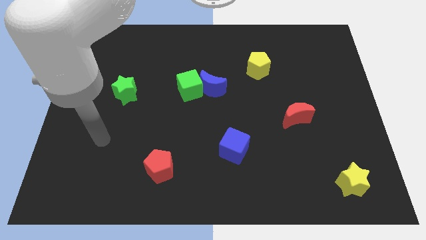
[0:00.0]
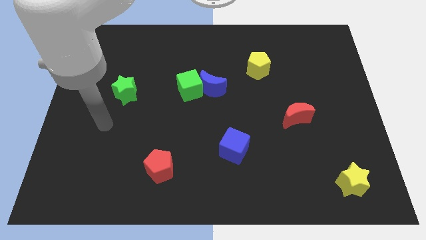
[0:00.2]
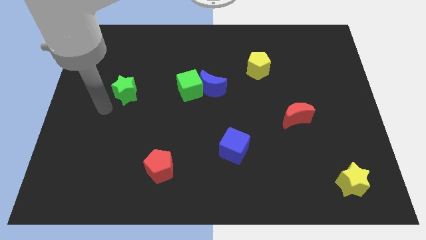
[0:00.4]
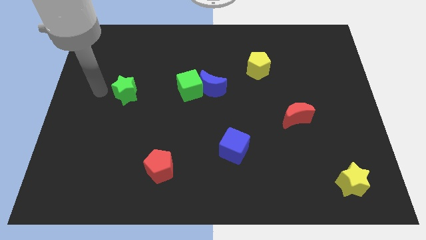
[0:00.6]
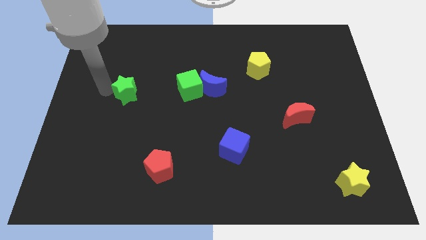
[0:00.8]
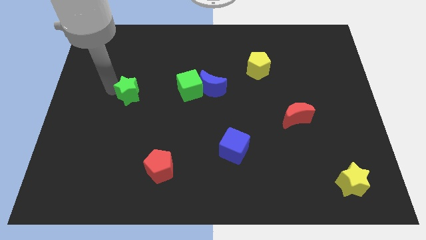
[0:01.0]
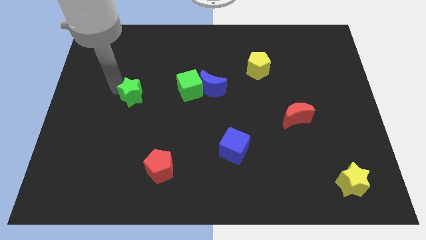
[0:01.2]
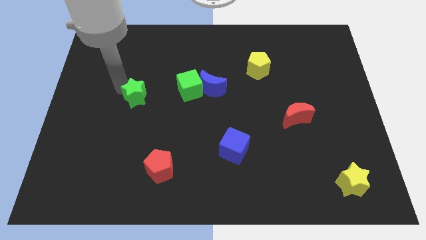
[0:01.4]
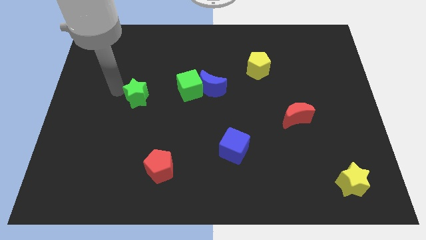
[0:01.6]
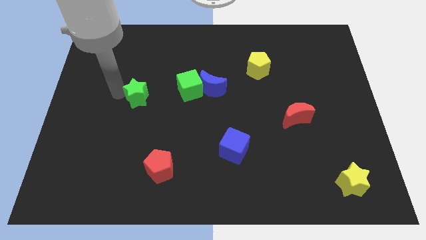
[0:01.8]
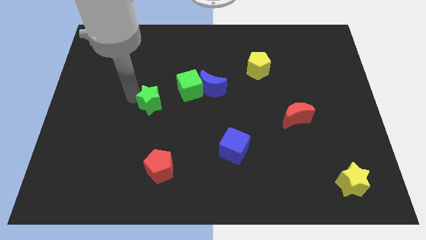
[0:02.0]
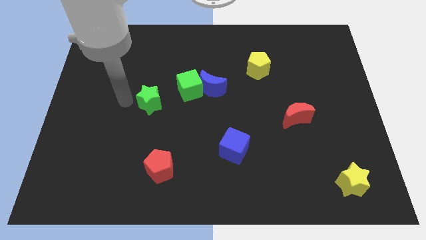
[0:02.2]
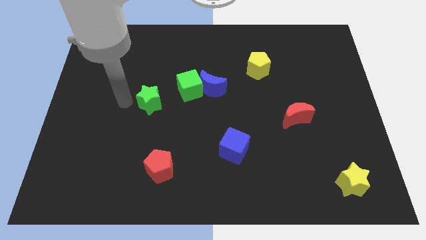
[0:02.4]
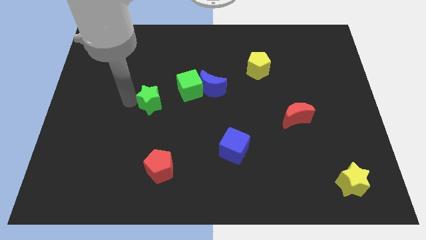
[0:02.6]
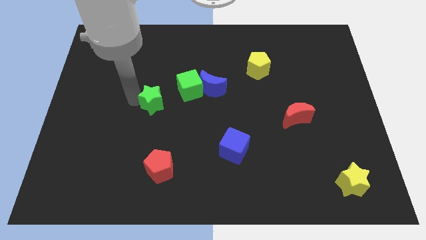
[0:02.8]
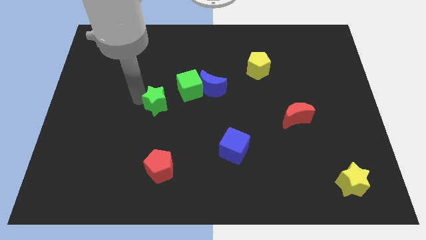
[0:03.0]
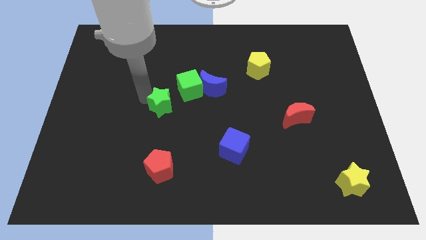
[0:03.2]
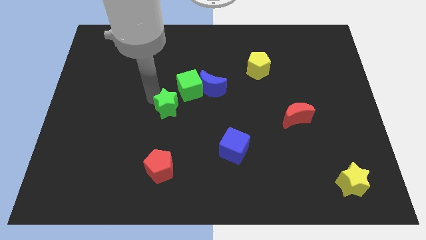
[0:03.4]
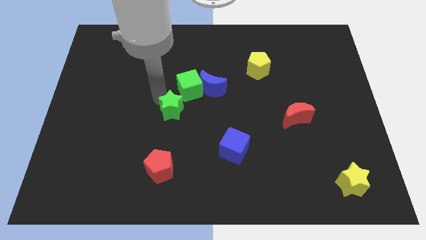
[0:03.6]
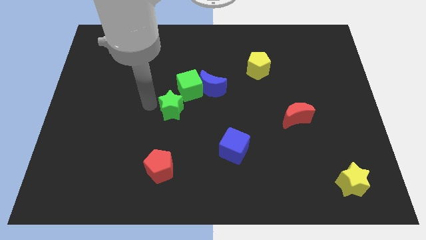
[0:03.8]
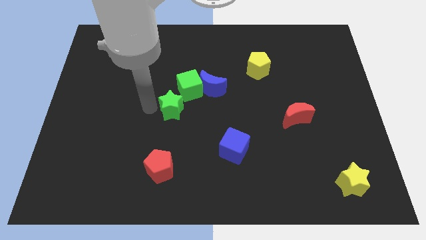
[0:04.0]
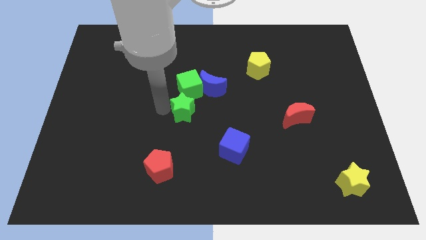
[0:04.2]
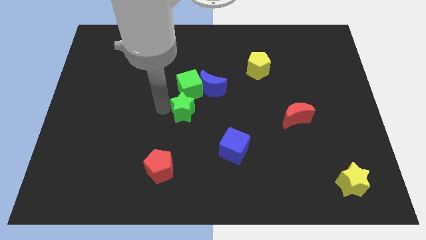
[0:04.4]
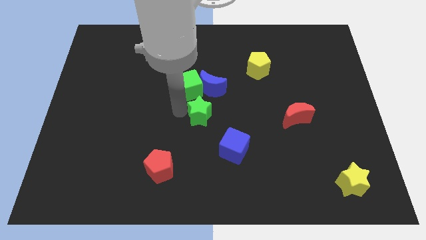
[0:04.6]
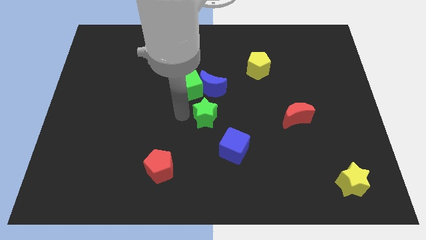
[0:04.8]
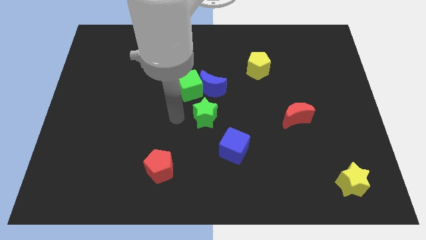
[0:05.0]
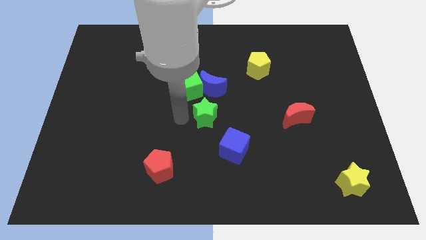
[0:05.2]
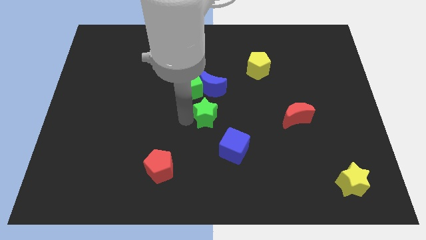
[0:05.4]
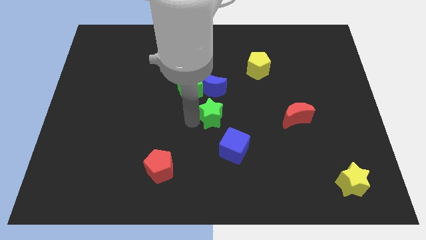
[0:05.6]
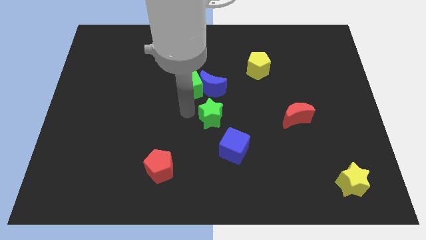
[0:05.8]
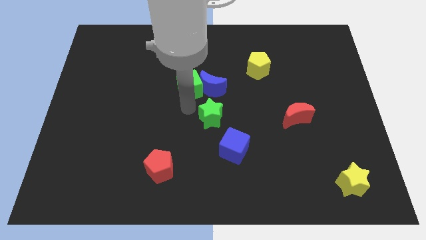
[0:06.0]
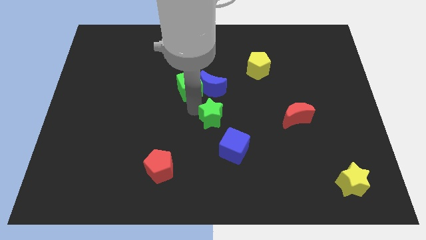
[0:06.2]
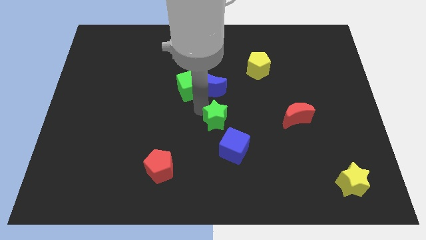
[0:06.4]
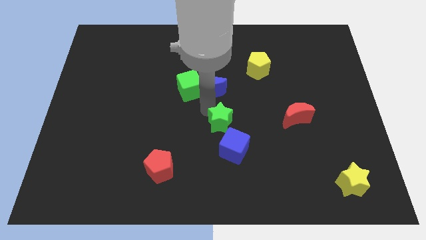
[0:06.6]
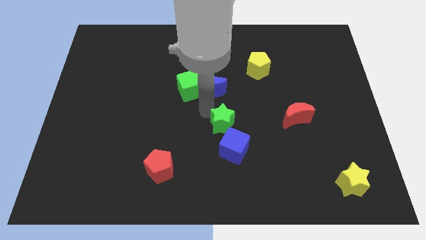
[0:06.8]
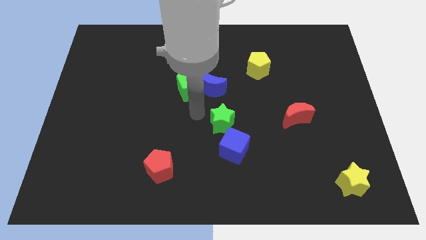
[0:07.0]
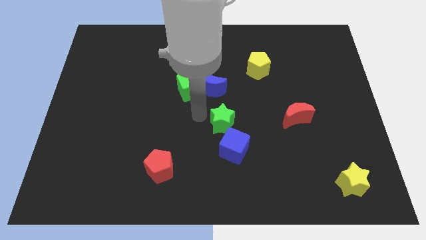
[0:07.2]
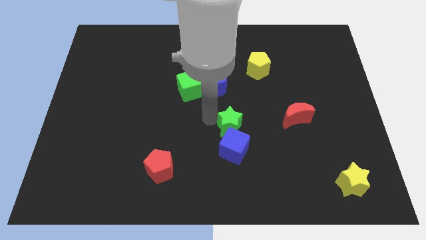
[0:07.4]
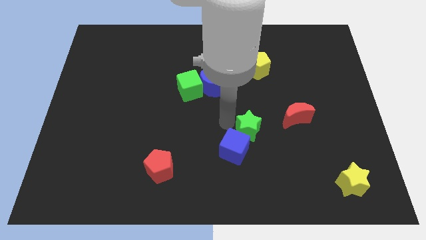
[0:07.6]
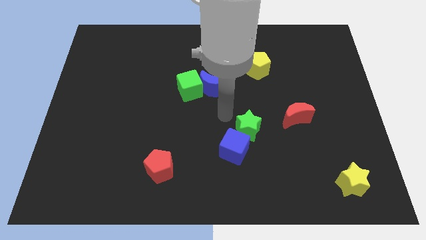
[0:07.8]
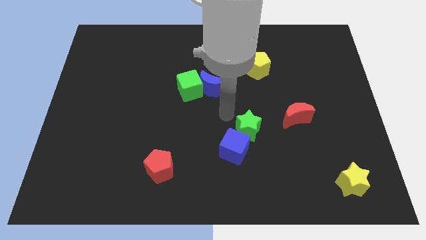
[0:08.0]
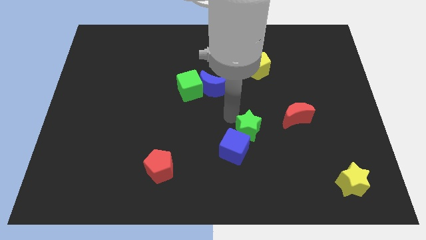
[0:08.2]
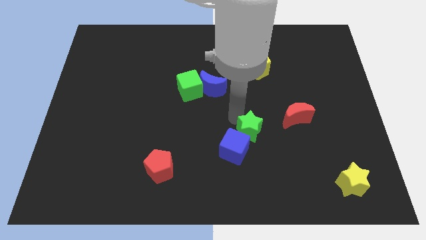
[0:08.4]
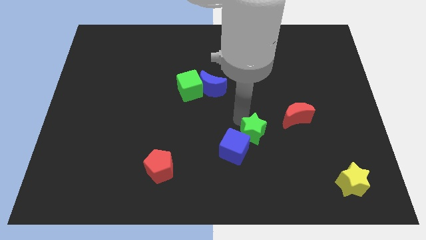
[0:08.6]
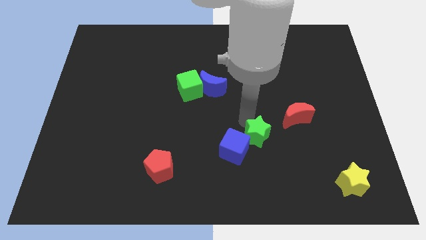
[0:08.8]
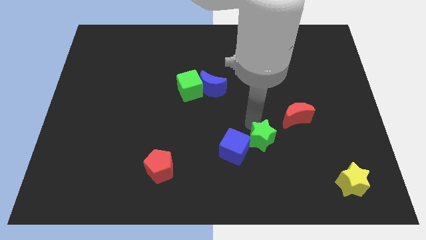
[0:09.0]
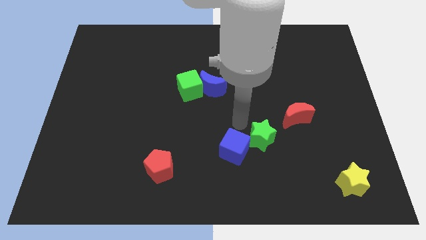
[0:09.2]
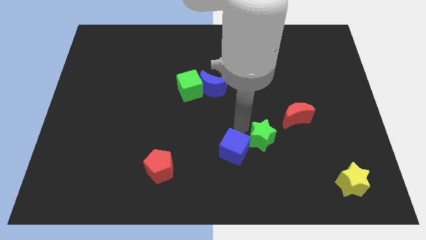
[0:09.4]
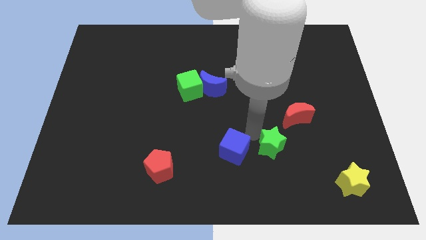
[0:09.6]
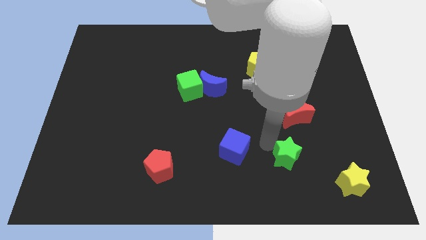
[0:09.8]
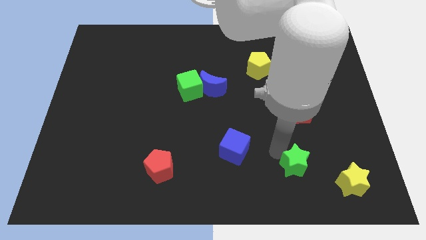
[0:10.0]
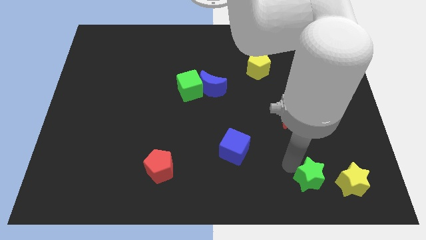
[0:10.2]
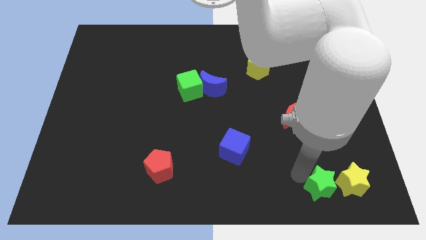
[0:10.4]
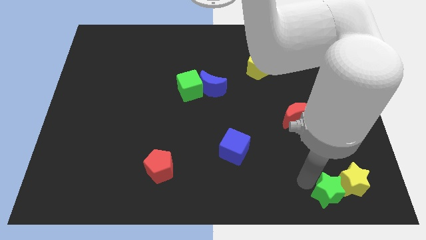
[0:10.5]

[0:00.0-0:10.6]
push the green star next to the yellow star

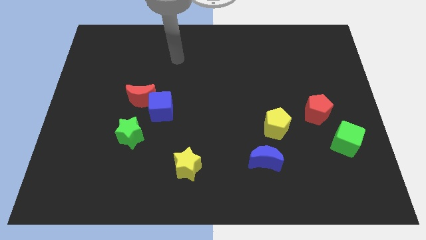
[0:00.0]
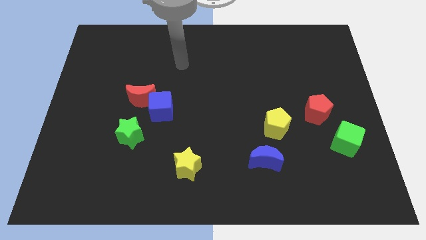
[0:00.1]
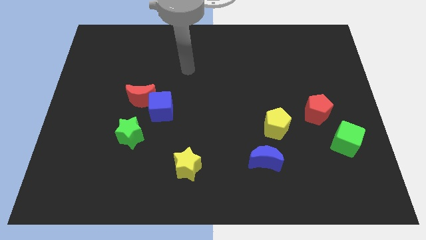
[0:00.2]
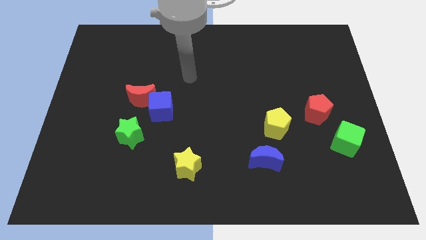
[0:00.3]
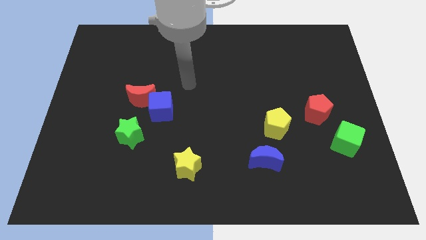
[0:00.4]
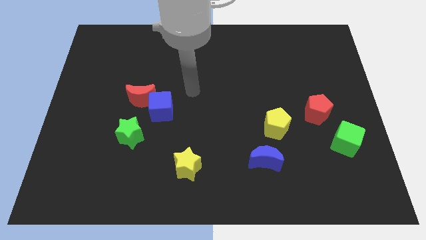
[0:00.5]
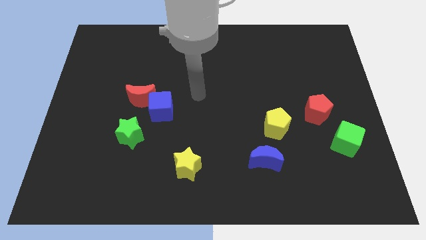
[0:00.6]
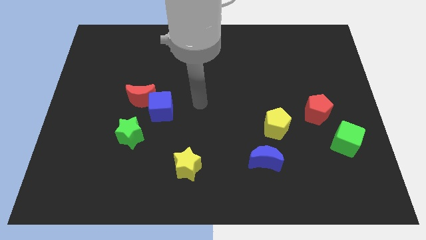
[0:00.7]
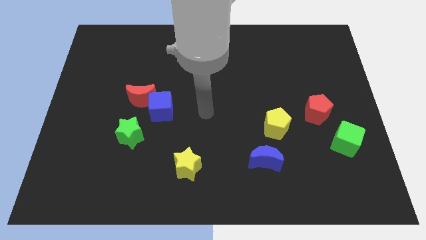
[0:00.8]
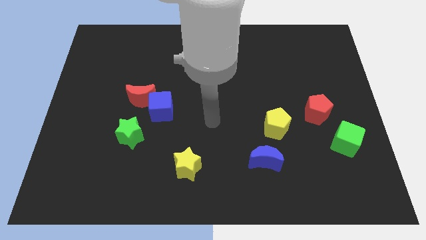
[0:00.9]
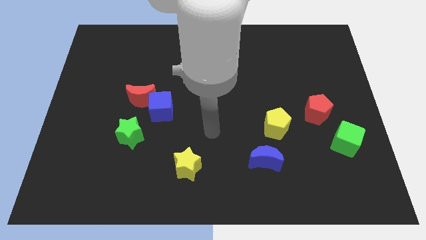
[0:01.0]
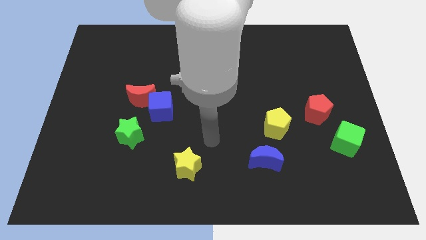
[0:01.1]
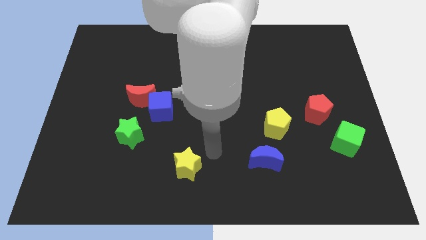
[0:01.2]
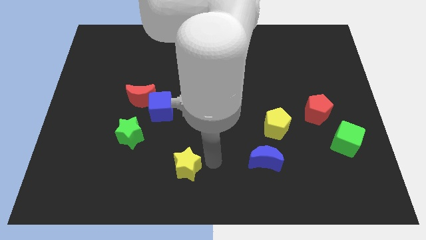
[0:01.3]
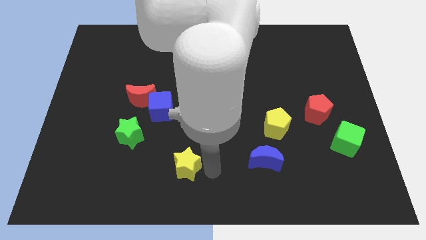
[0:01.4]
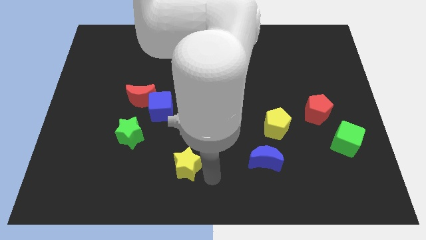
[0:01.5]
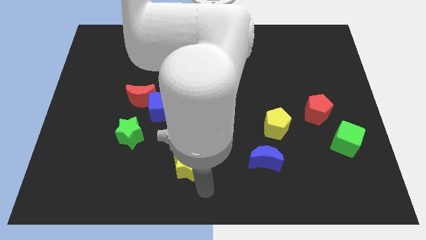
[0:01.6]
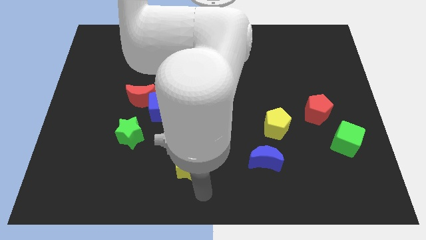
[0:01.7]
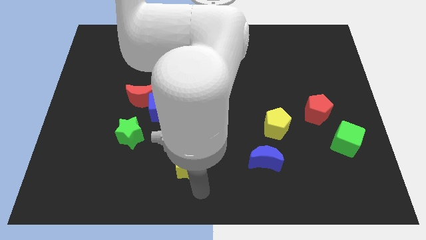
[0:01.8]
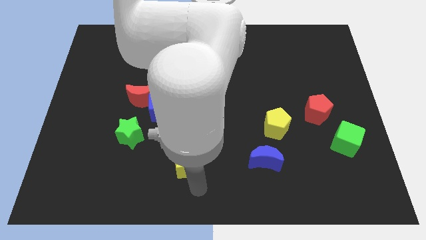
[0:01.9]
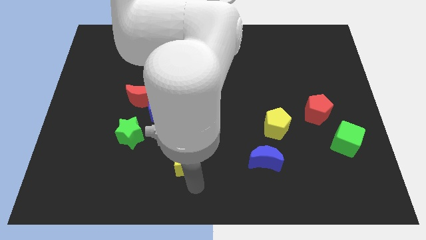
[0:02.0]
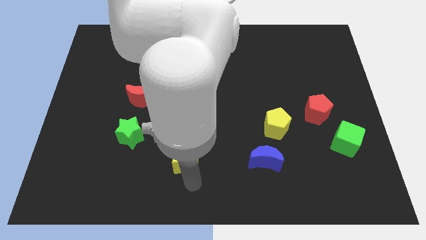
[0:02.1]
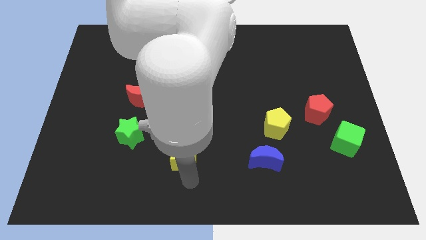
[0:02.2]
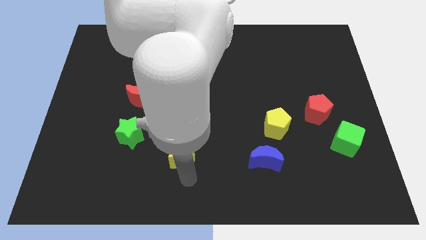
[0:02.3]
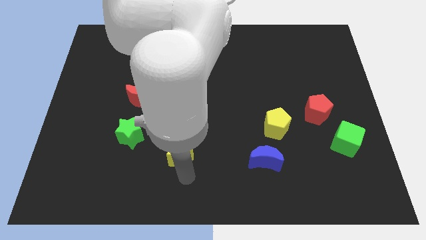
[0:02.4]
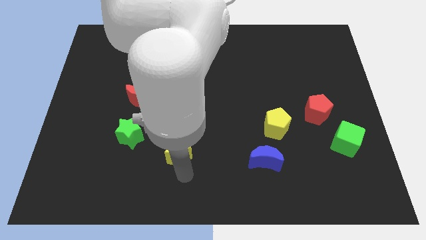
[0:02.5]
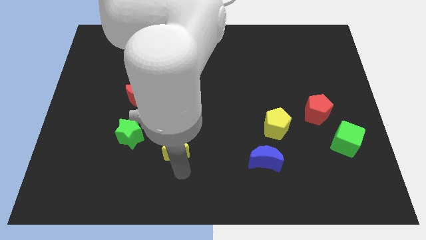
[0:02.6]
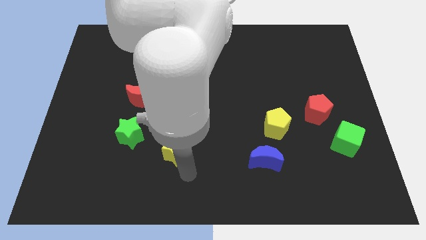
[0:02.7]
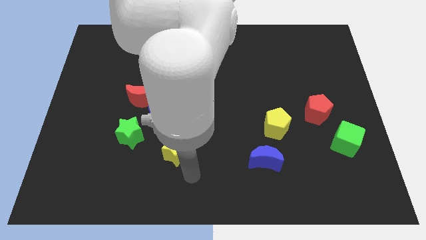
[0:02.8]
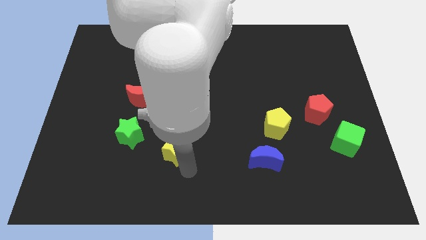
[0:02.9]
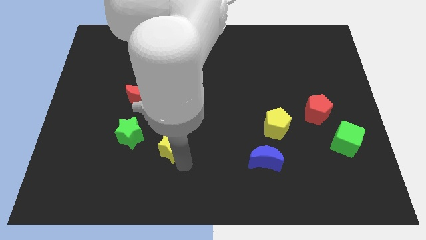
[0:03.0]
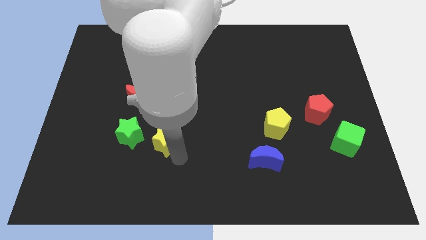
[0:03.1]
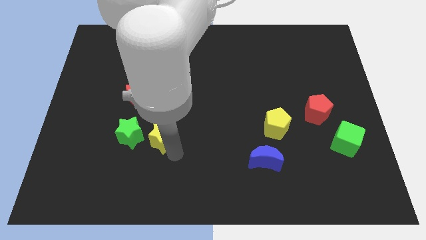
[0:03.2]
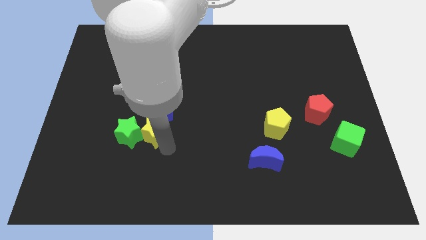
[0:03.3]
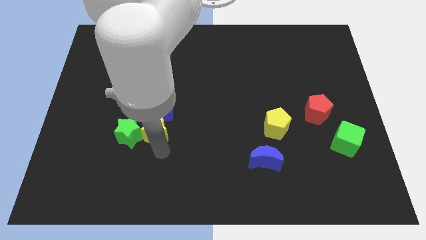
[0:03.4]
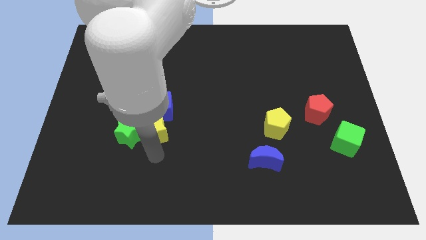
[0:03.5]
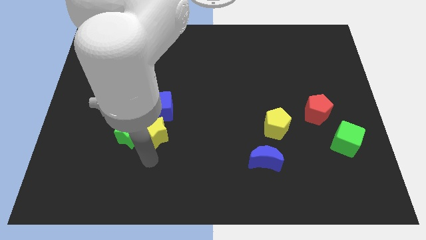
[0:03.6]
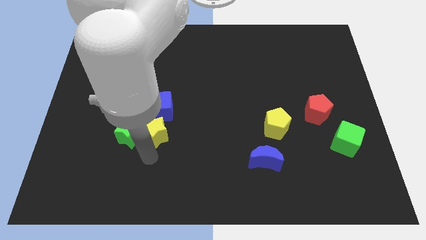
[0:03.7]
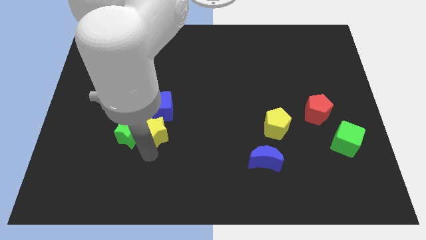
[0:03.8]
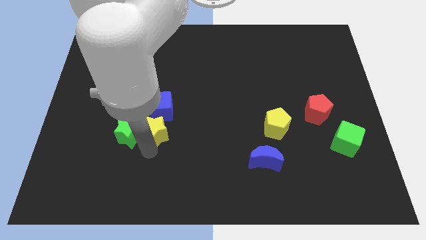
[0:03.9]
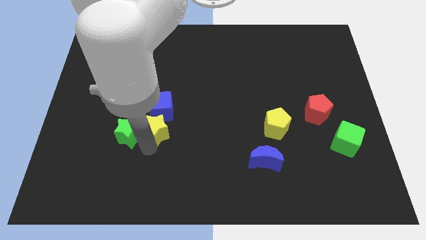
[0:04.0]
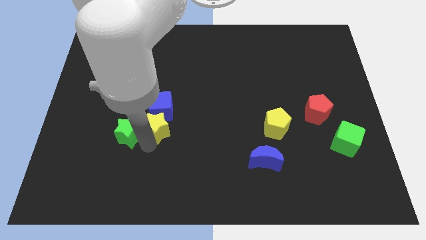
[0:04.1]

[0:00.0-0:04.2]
put the yellow star towards the blue cube
